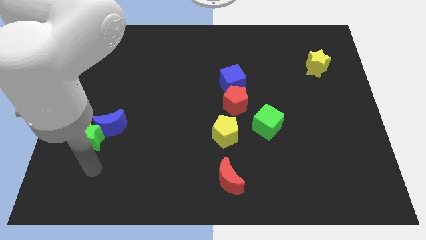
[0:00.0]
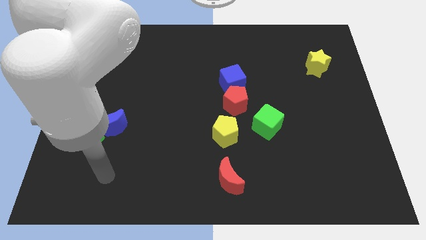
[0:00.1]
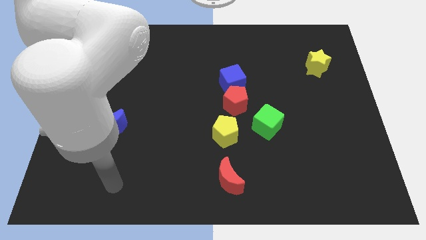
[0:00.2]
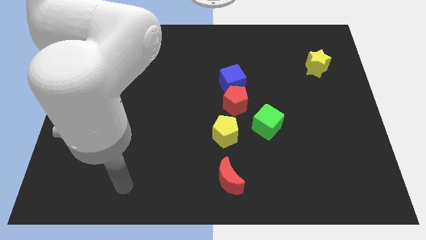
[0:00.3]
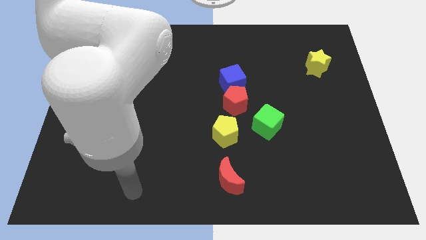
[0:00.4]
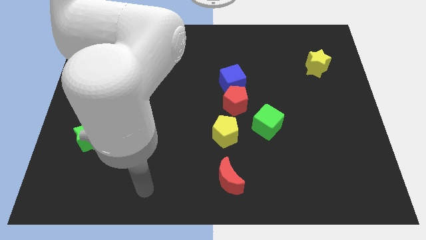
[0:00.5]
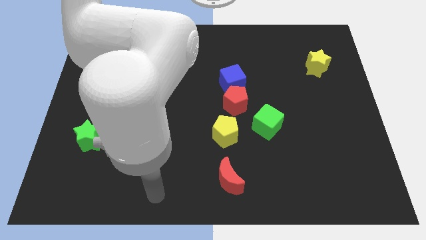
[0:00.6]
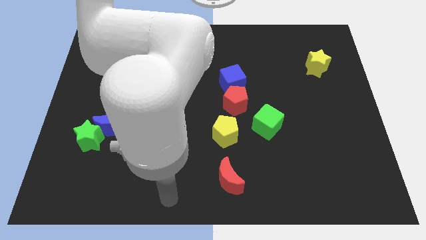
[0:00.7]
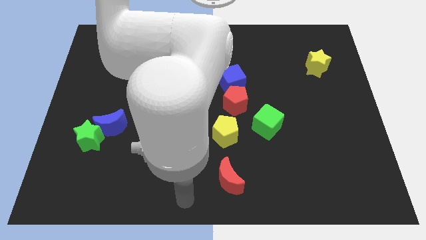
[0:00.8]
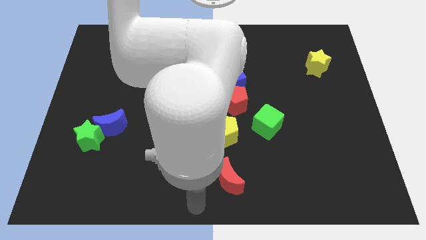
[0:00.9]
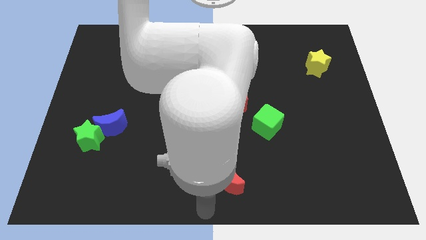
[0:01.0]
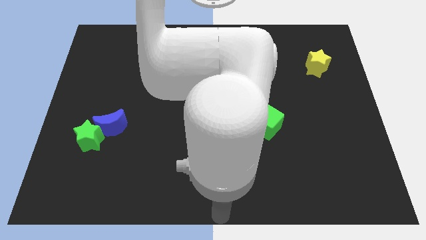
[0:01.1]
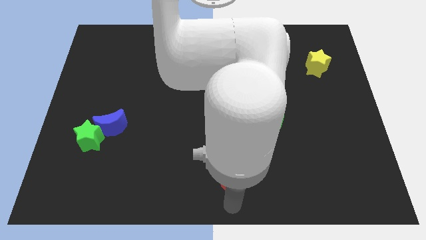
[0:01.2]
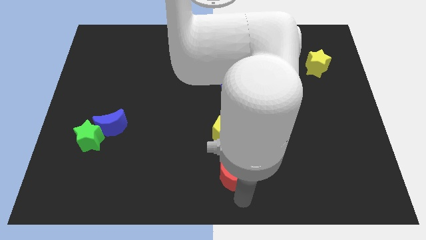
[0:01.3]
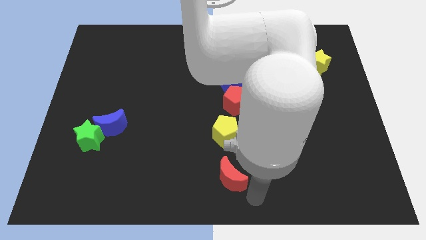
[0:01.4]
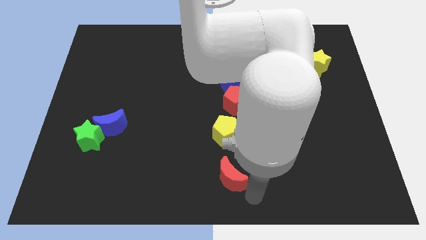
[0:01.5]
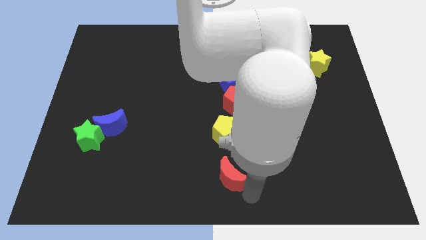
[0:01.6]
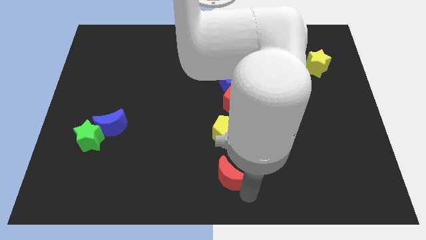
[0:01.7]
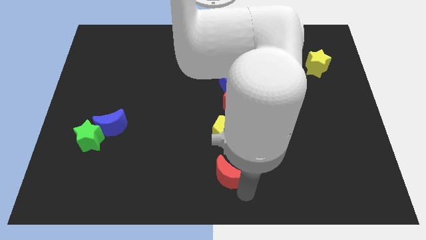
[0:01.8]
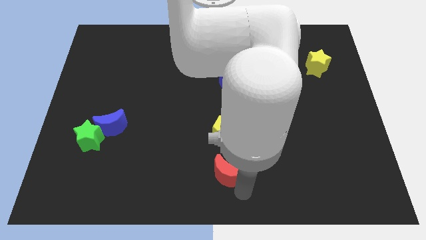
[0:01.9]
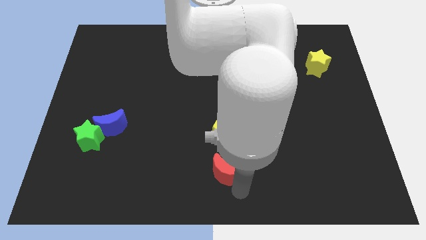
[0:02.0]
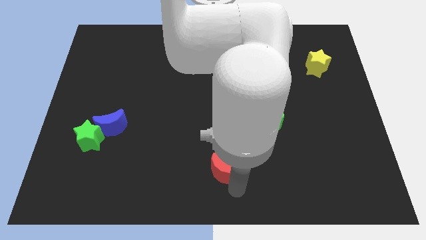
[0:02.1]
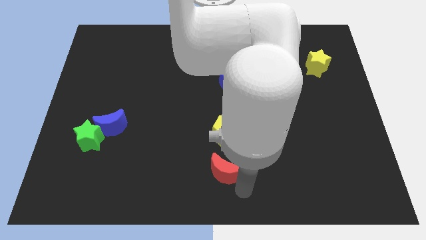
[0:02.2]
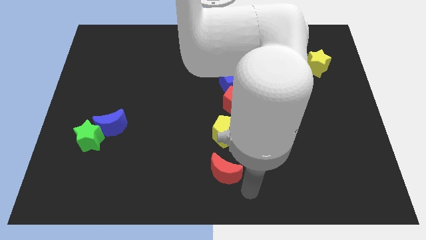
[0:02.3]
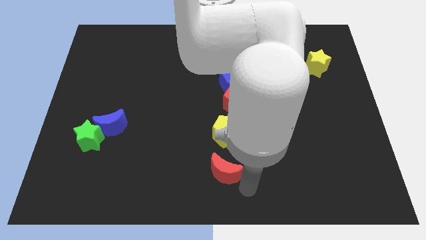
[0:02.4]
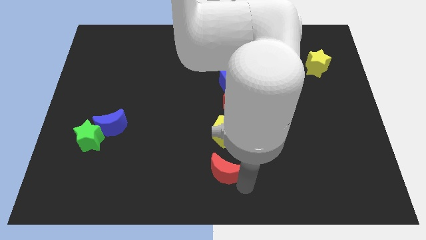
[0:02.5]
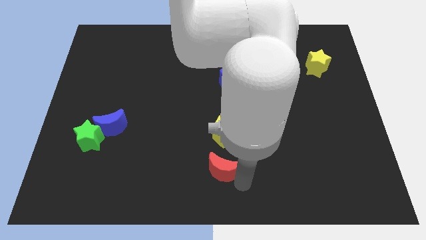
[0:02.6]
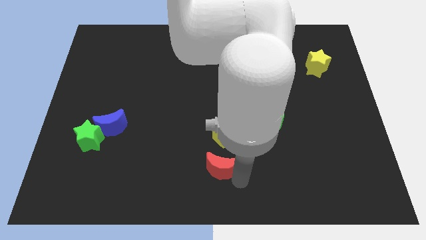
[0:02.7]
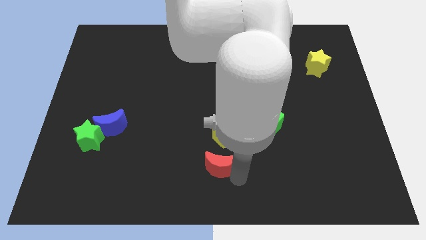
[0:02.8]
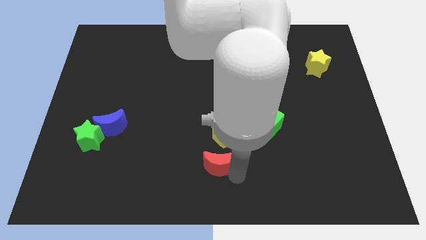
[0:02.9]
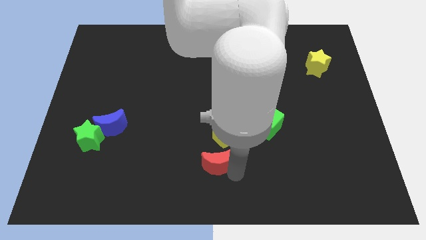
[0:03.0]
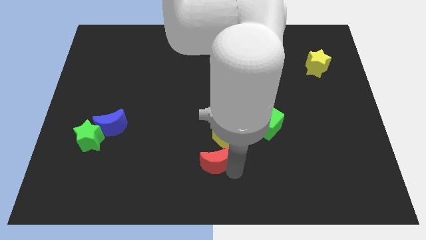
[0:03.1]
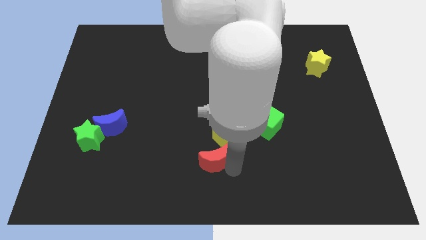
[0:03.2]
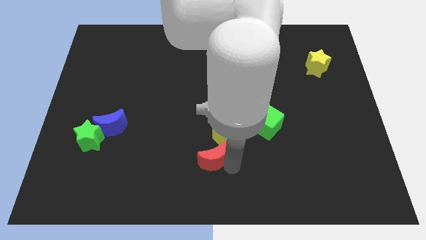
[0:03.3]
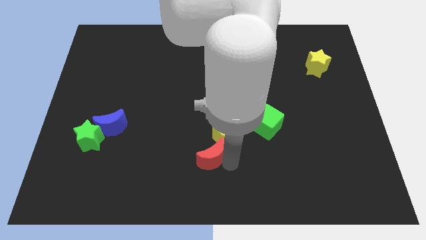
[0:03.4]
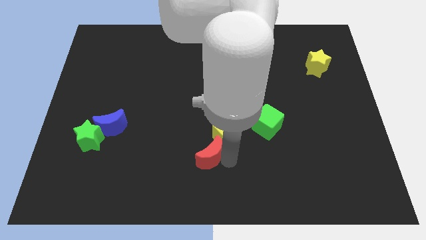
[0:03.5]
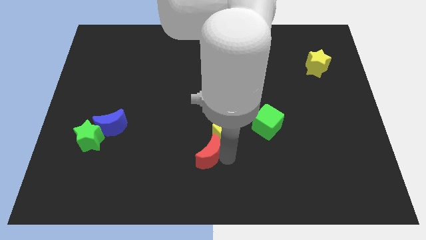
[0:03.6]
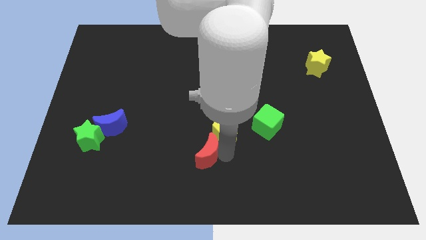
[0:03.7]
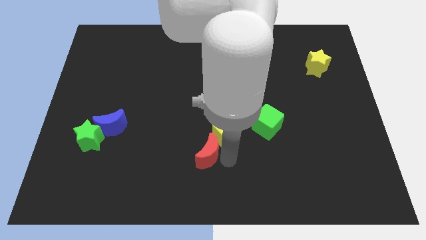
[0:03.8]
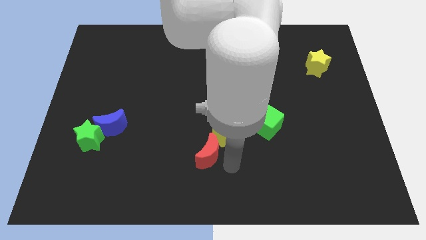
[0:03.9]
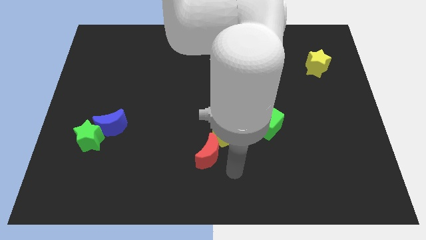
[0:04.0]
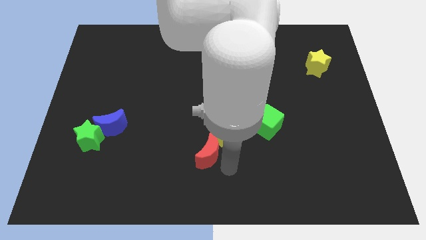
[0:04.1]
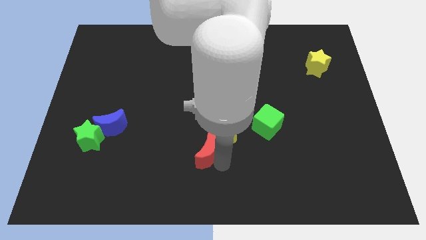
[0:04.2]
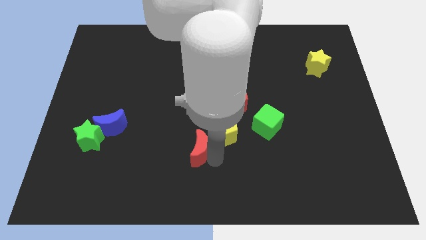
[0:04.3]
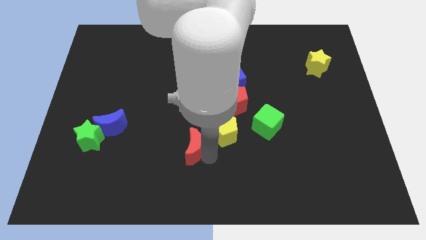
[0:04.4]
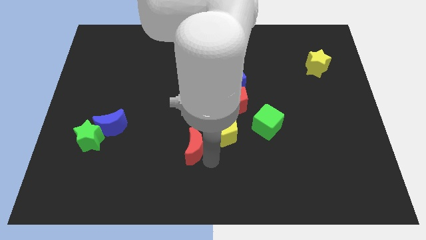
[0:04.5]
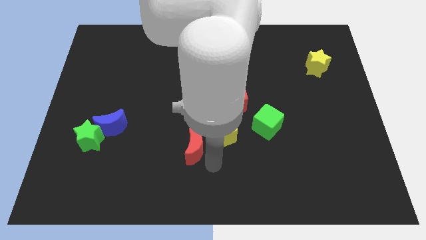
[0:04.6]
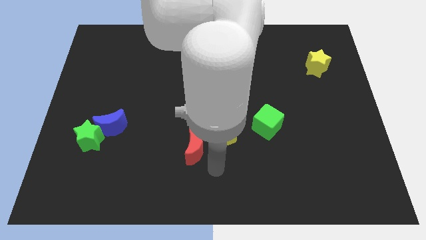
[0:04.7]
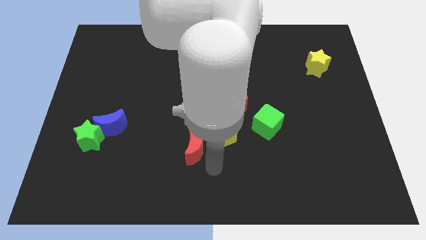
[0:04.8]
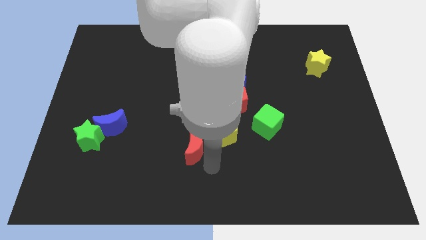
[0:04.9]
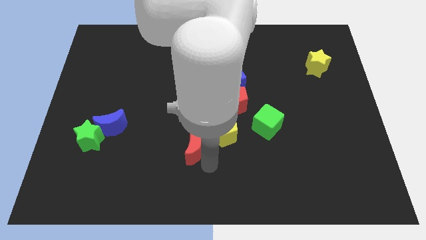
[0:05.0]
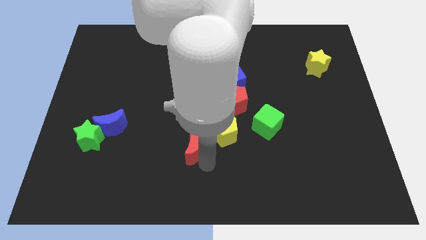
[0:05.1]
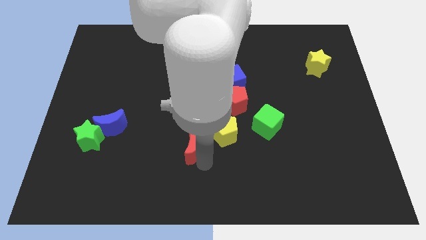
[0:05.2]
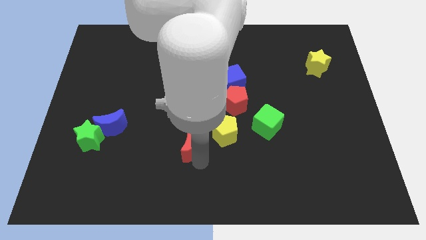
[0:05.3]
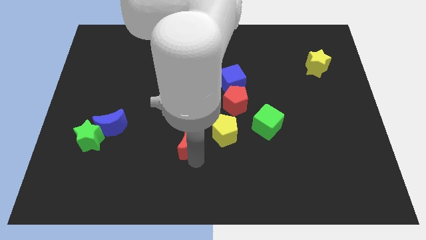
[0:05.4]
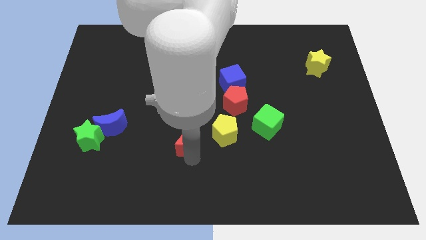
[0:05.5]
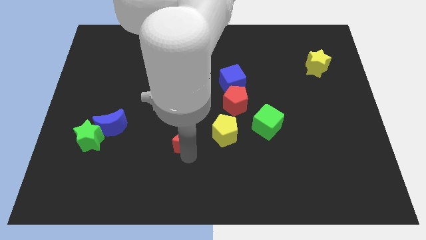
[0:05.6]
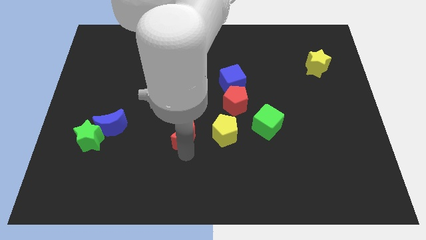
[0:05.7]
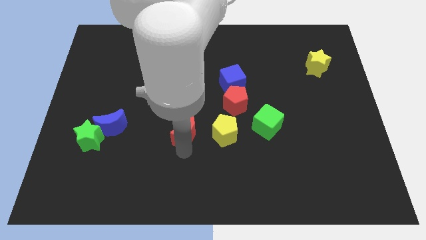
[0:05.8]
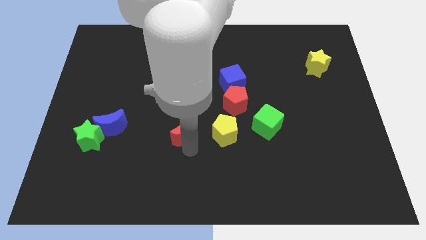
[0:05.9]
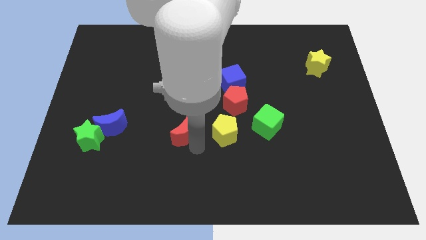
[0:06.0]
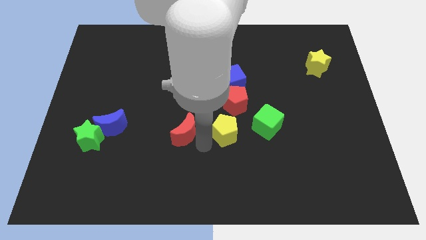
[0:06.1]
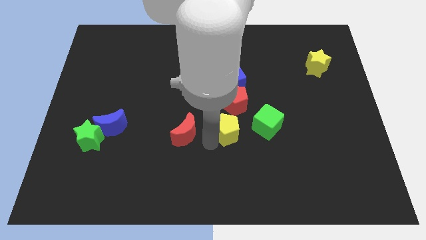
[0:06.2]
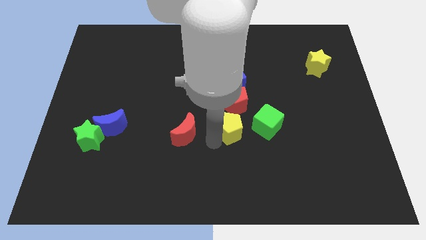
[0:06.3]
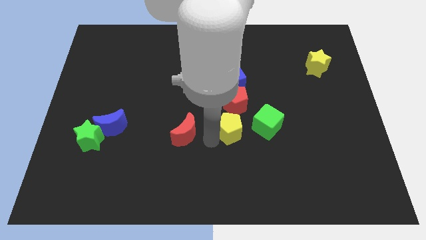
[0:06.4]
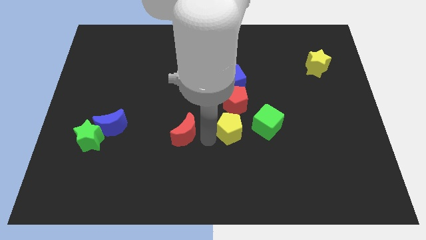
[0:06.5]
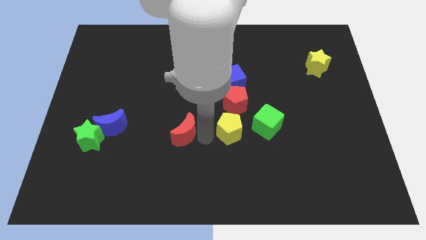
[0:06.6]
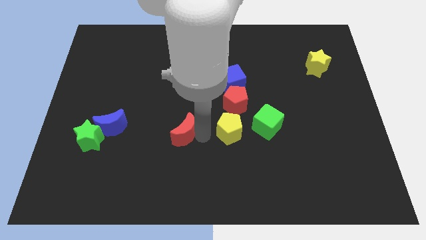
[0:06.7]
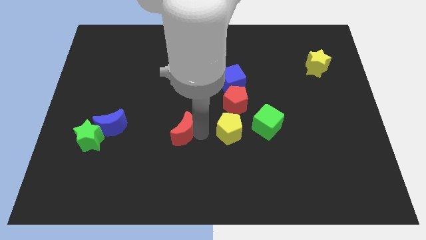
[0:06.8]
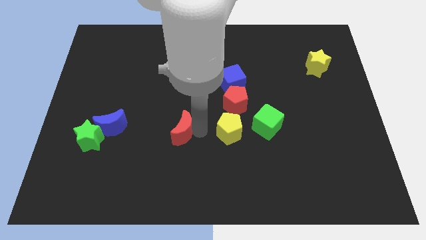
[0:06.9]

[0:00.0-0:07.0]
slide the red moon to the right side of the blue moon
